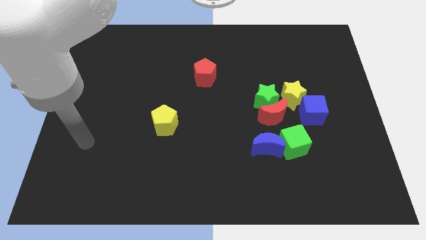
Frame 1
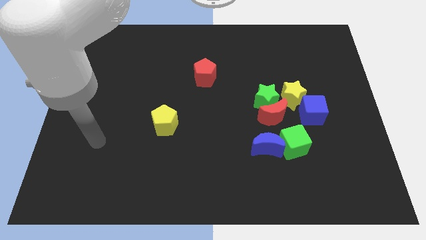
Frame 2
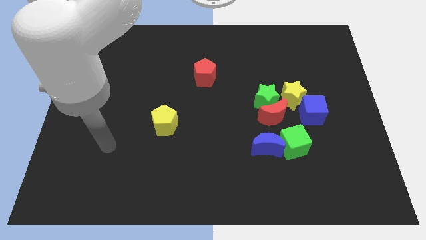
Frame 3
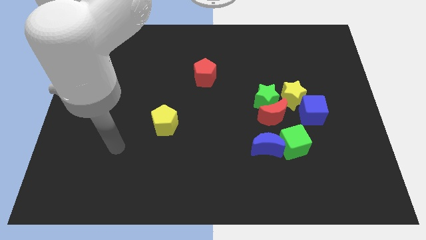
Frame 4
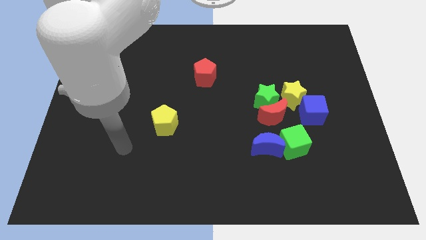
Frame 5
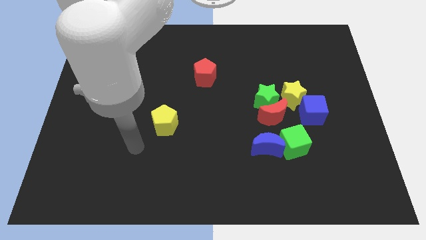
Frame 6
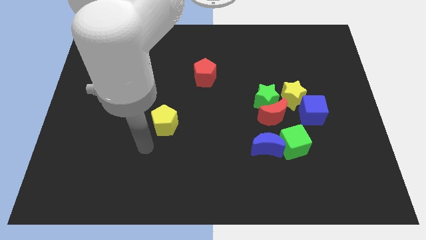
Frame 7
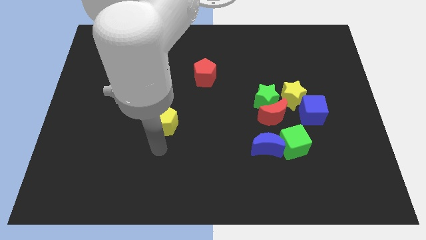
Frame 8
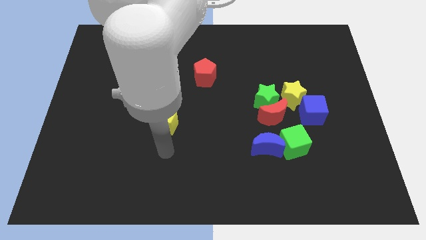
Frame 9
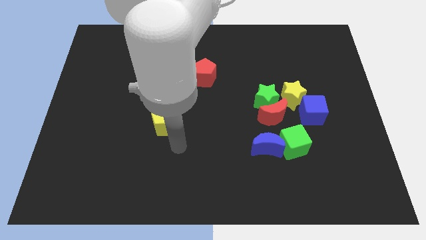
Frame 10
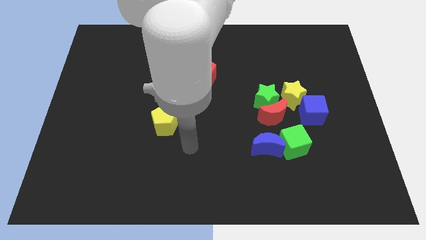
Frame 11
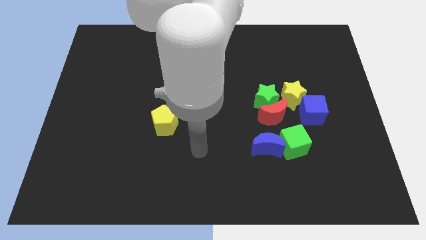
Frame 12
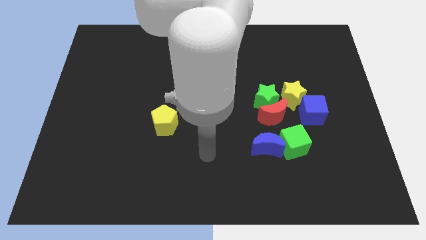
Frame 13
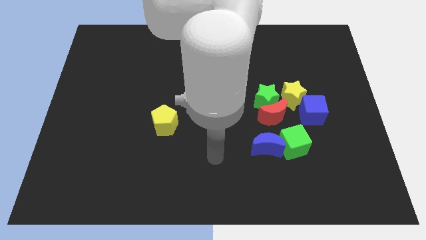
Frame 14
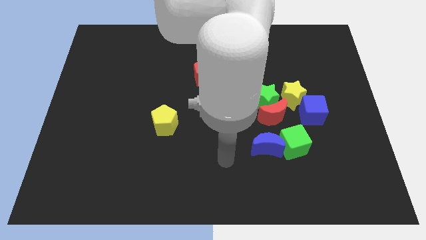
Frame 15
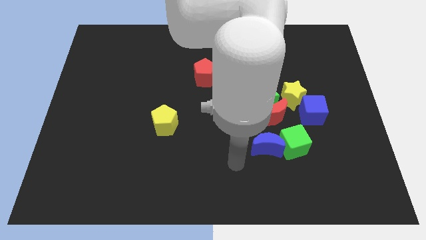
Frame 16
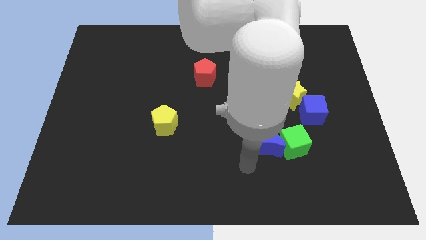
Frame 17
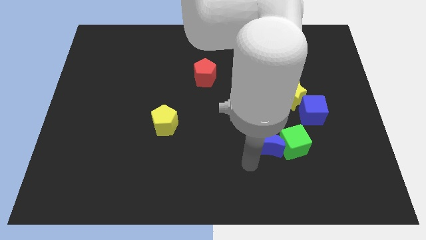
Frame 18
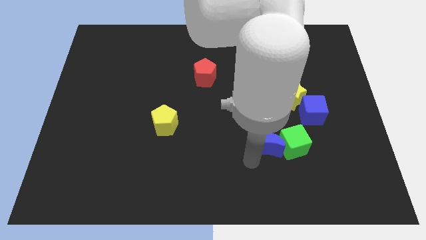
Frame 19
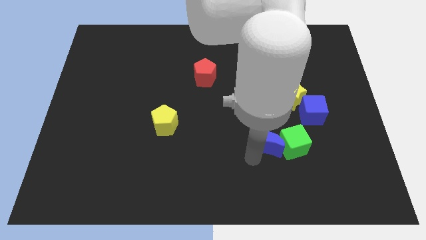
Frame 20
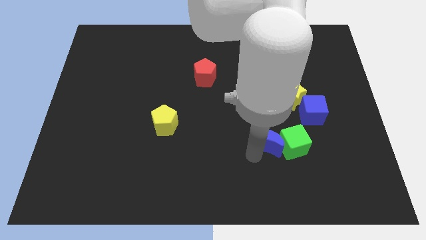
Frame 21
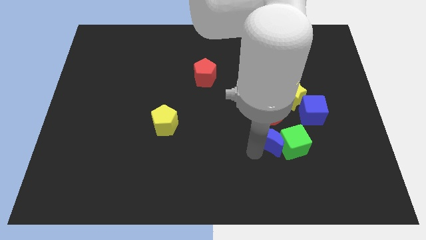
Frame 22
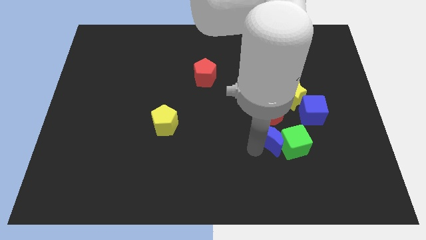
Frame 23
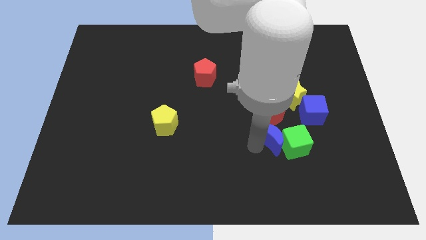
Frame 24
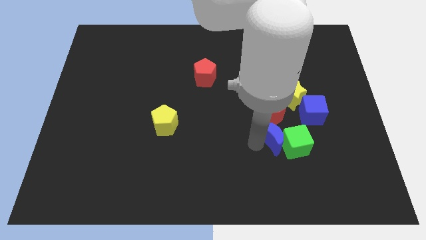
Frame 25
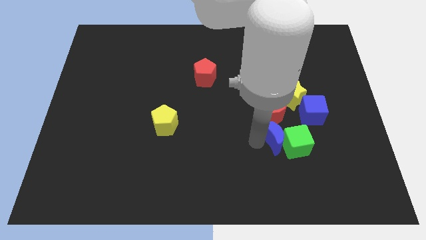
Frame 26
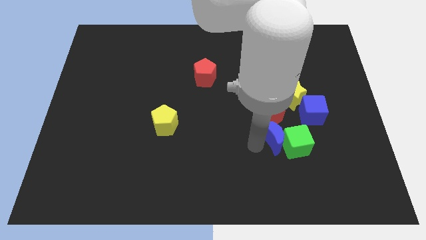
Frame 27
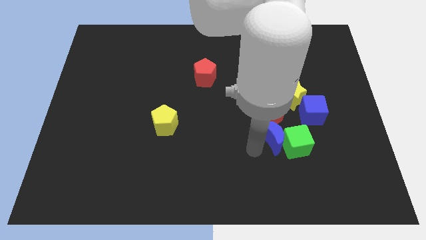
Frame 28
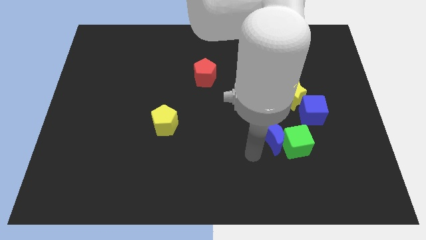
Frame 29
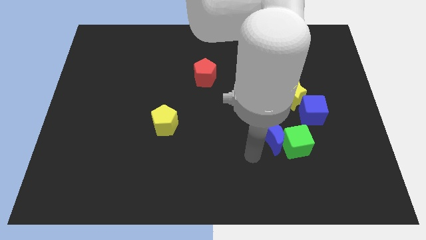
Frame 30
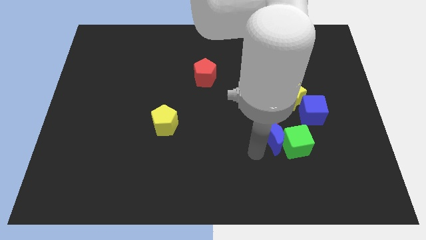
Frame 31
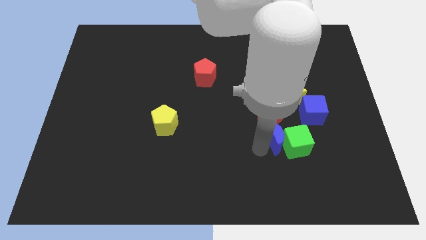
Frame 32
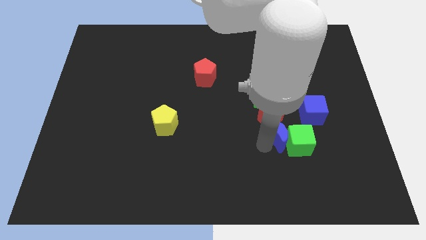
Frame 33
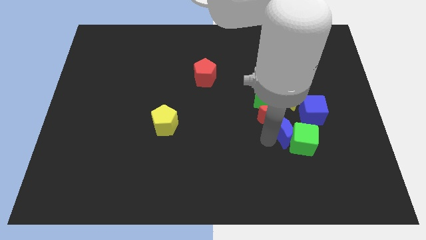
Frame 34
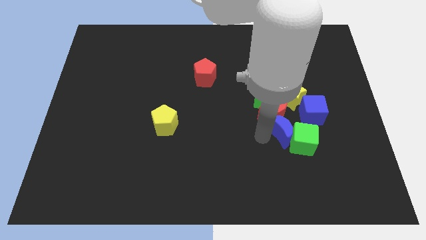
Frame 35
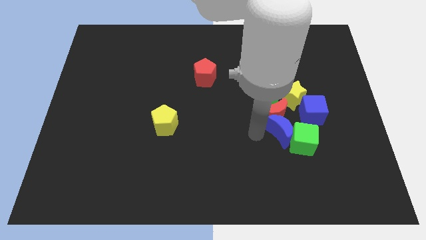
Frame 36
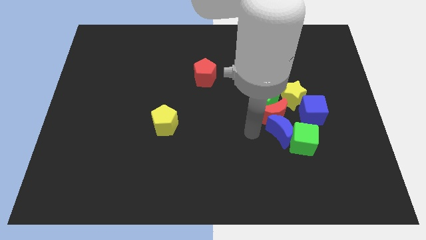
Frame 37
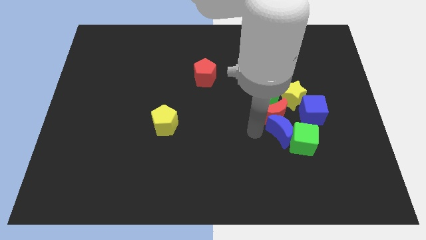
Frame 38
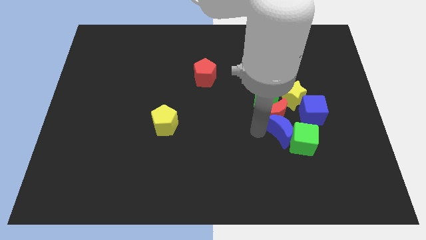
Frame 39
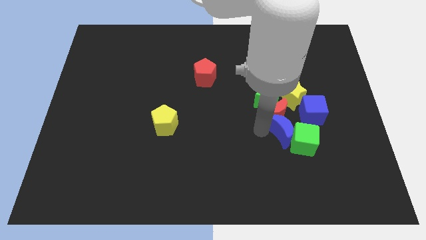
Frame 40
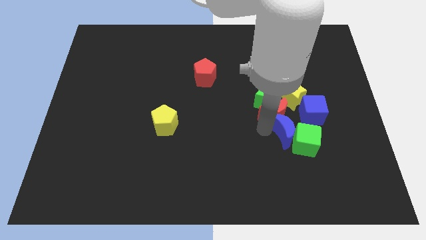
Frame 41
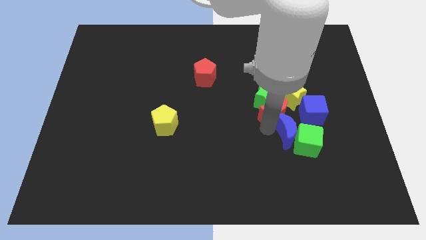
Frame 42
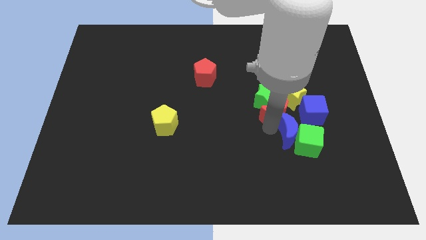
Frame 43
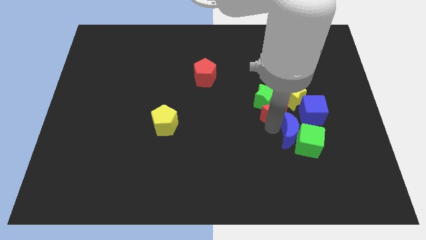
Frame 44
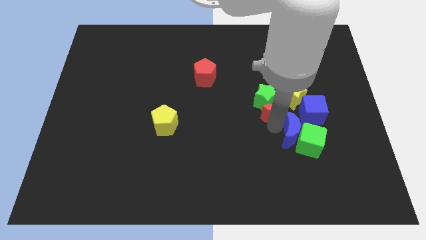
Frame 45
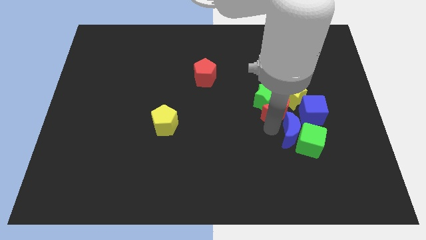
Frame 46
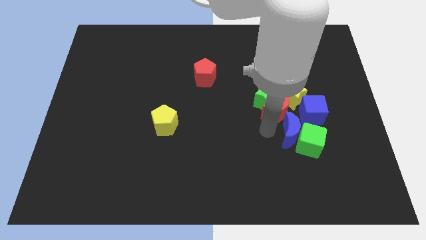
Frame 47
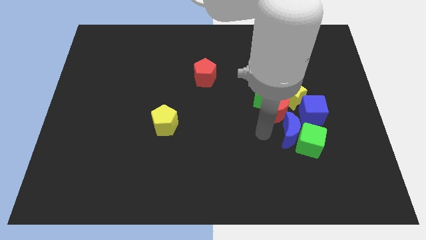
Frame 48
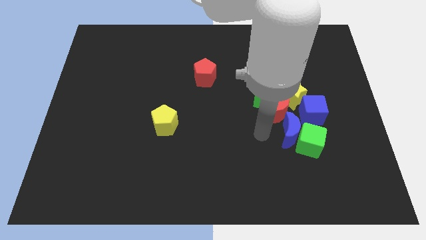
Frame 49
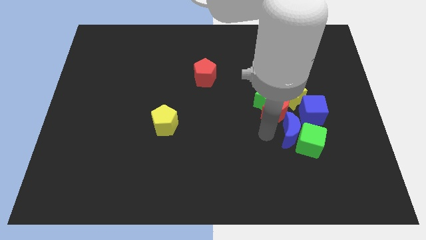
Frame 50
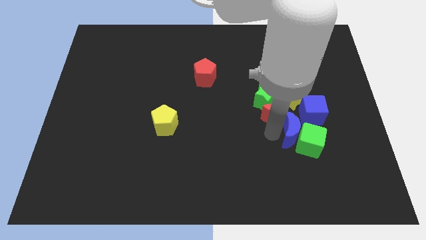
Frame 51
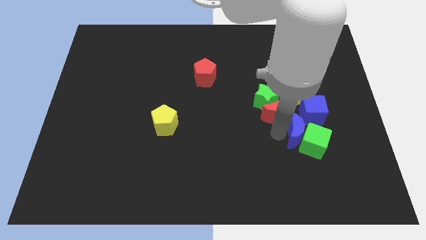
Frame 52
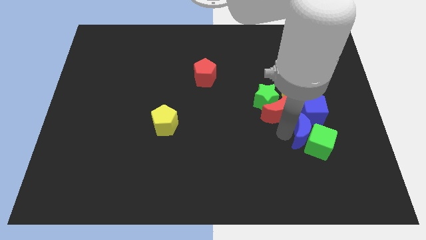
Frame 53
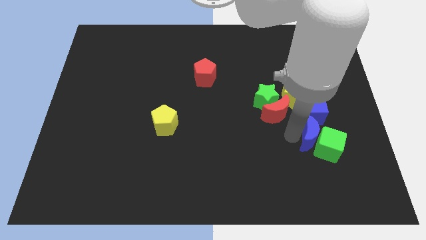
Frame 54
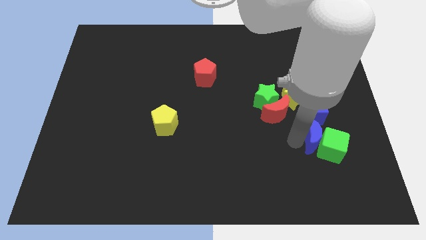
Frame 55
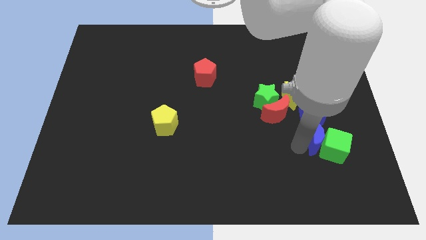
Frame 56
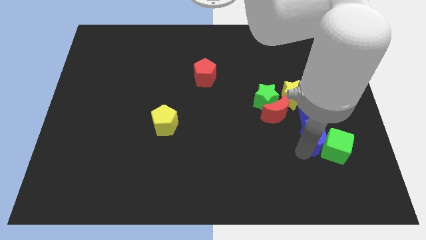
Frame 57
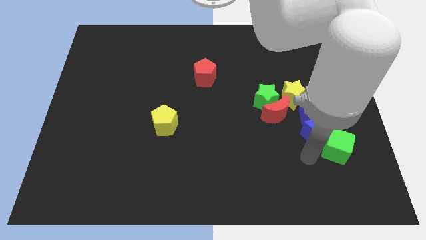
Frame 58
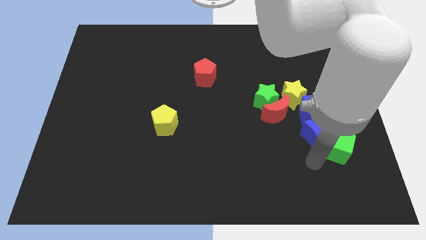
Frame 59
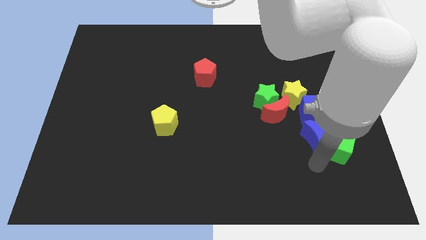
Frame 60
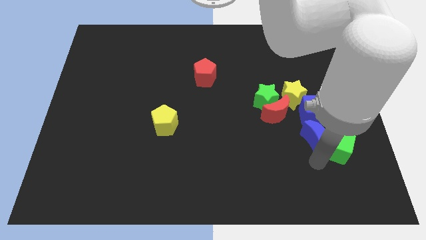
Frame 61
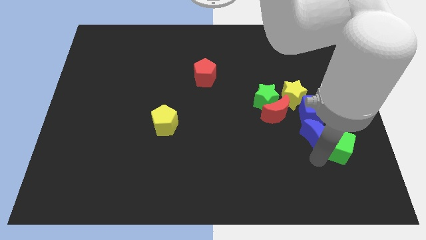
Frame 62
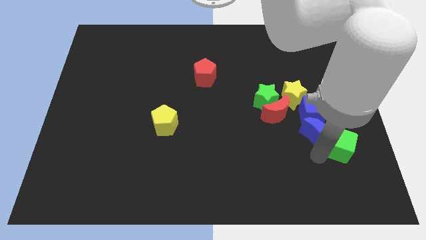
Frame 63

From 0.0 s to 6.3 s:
slide the blue moon to the blue cube
